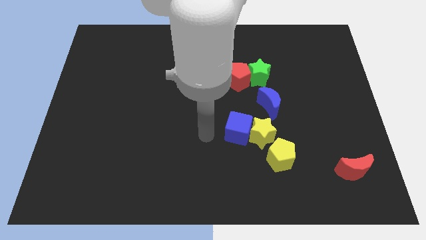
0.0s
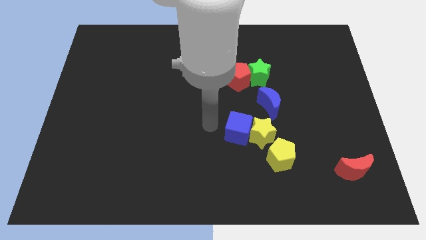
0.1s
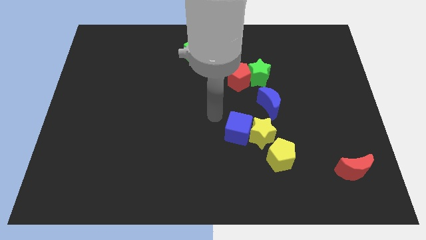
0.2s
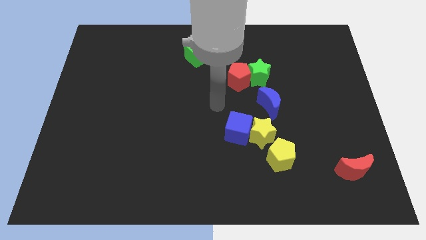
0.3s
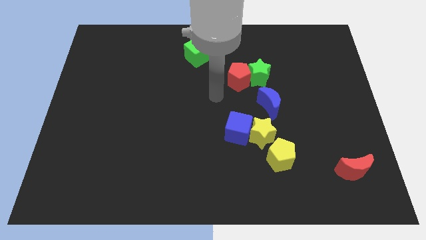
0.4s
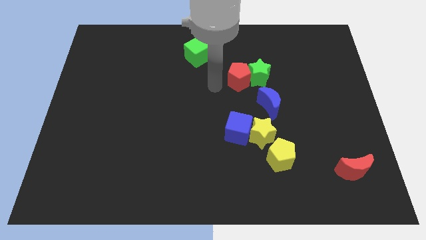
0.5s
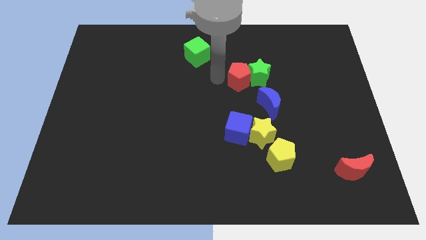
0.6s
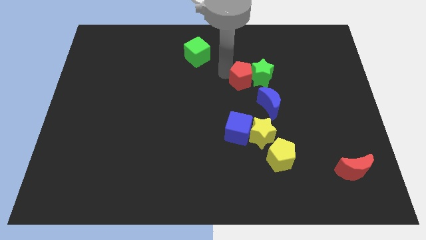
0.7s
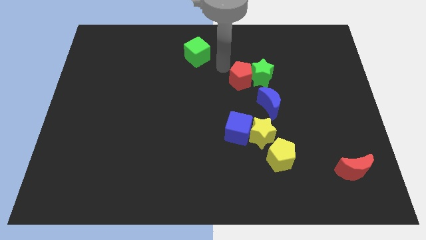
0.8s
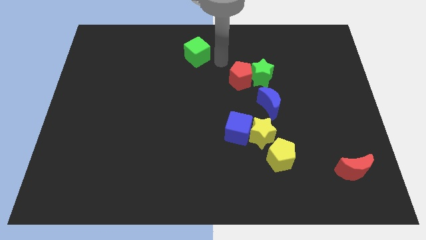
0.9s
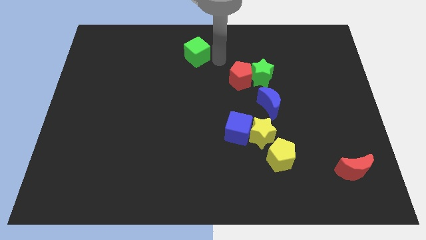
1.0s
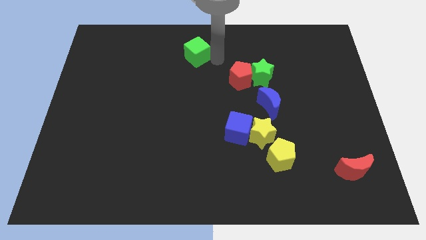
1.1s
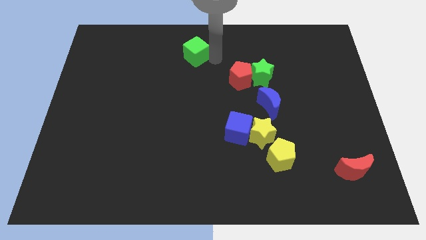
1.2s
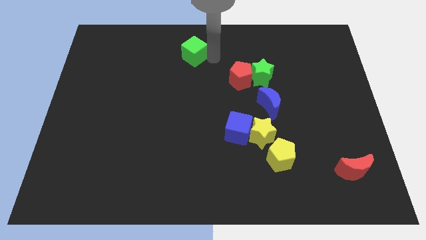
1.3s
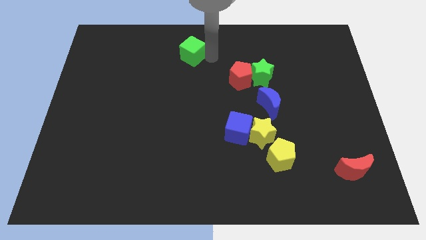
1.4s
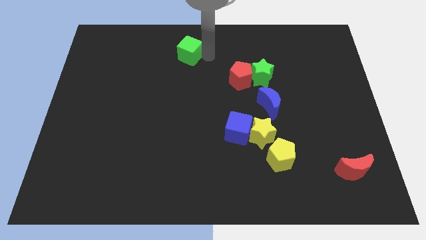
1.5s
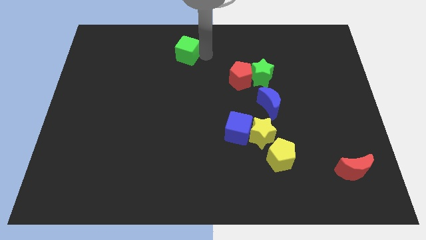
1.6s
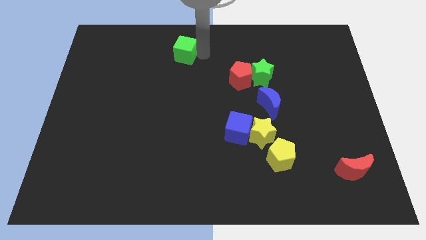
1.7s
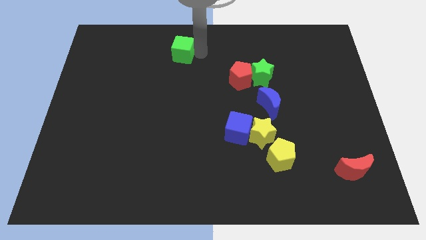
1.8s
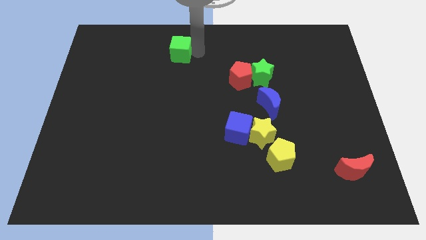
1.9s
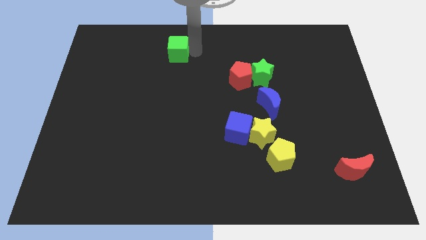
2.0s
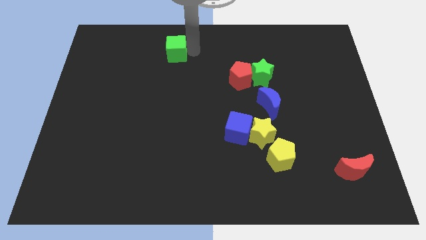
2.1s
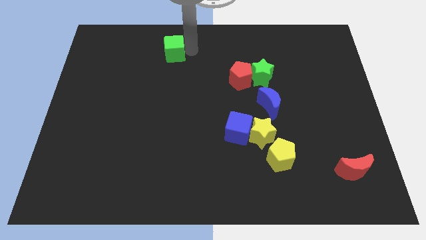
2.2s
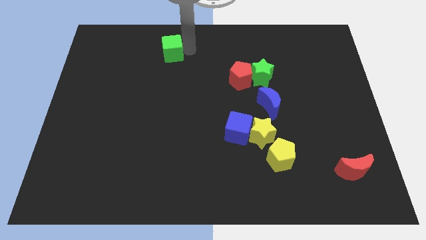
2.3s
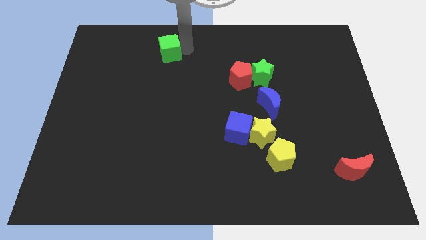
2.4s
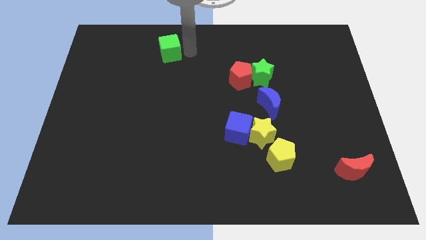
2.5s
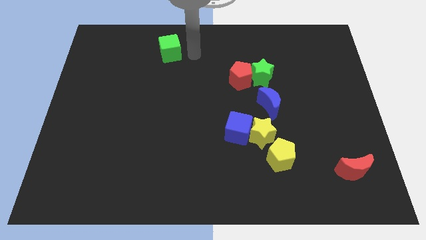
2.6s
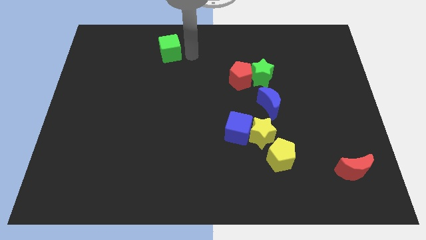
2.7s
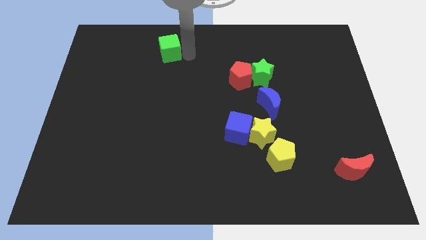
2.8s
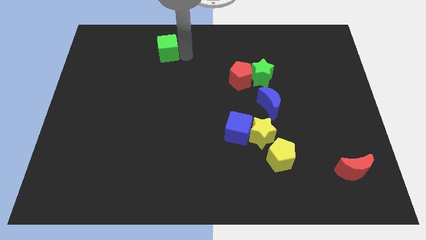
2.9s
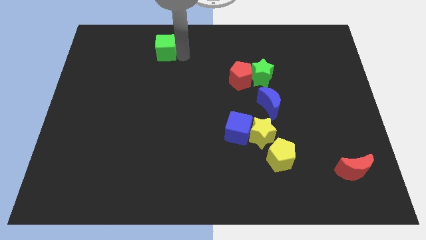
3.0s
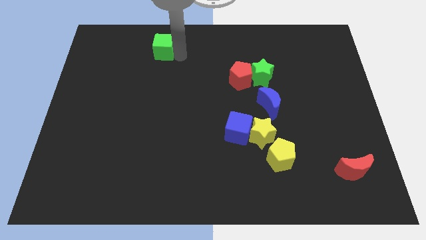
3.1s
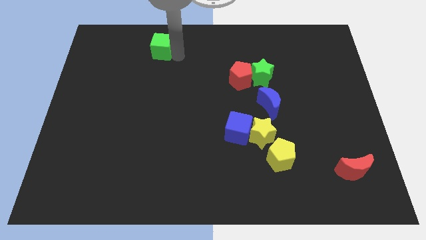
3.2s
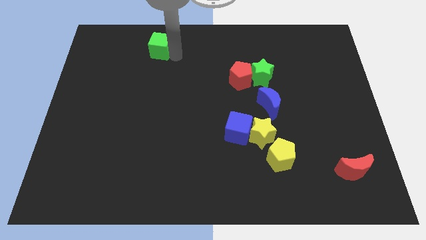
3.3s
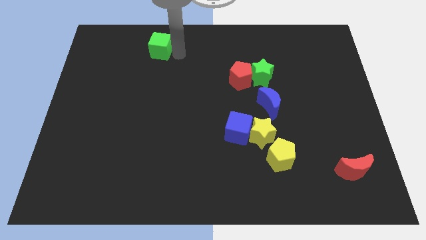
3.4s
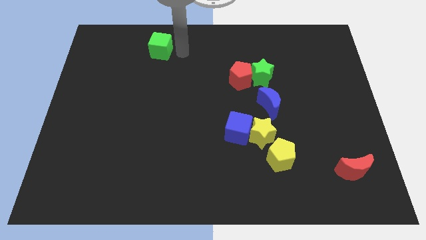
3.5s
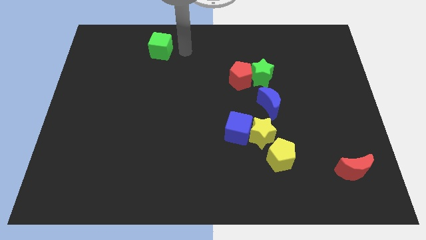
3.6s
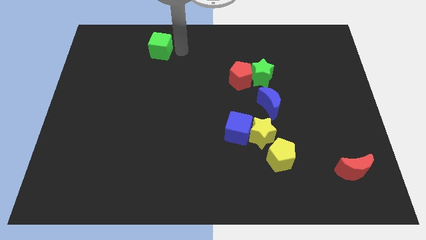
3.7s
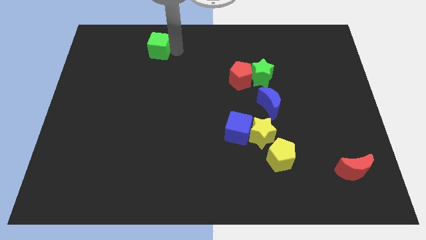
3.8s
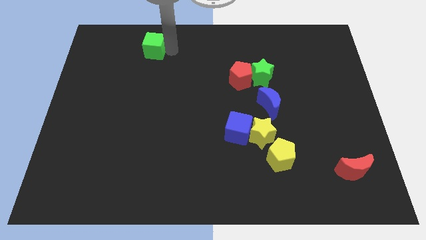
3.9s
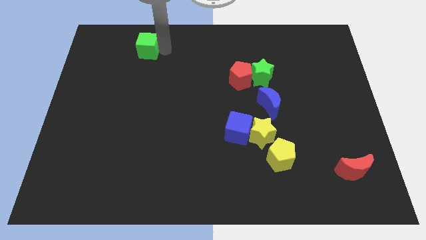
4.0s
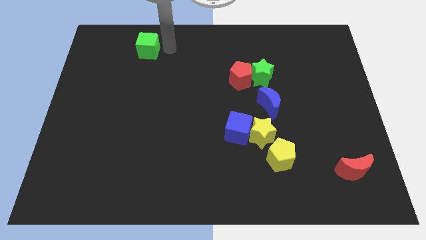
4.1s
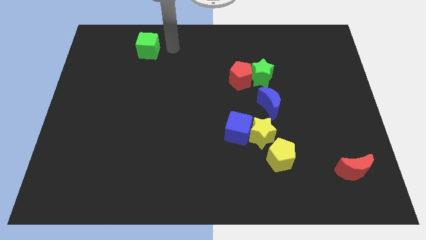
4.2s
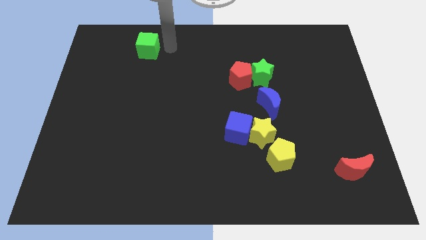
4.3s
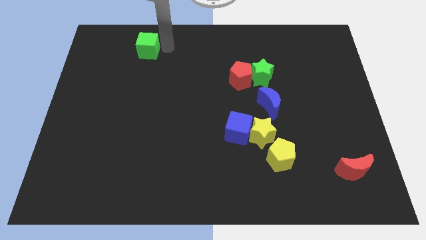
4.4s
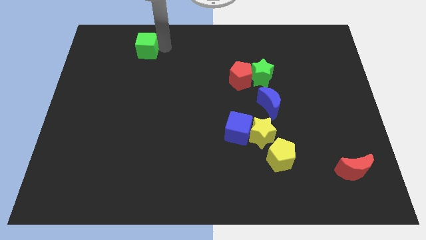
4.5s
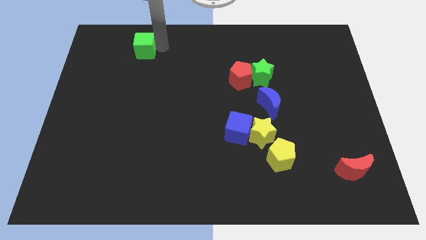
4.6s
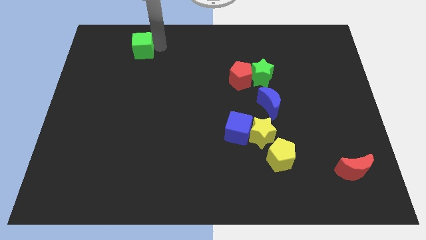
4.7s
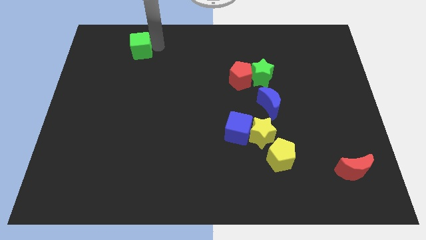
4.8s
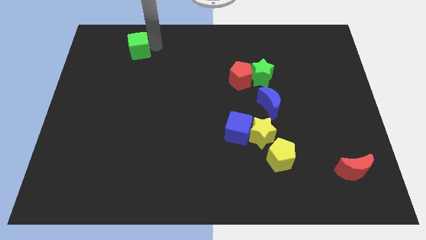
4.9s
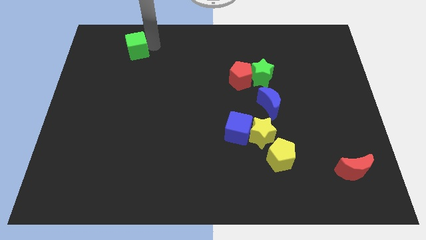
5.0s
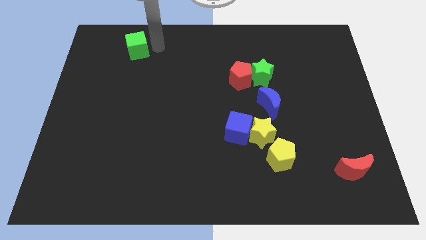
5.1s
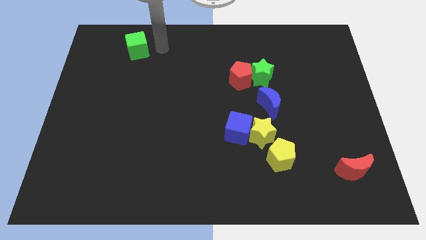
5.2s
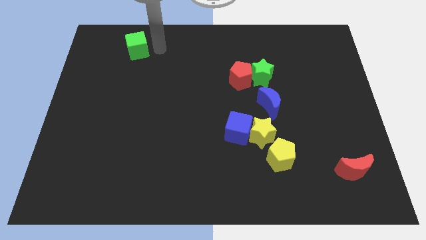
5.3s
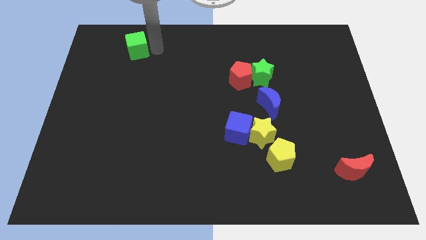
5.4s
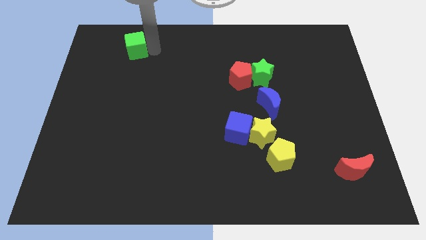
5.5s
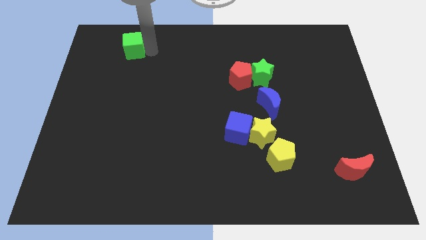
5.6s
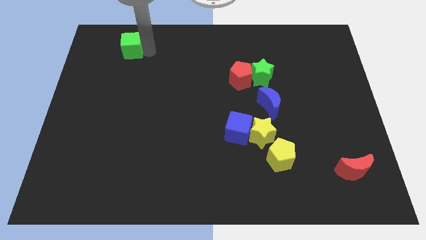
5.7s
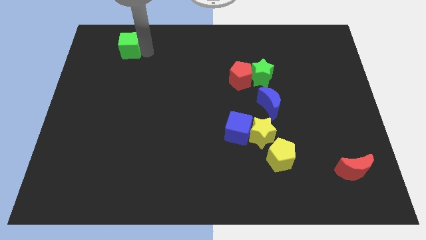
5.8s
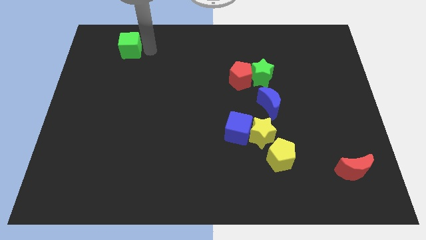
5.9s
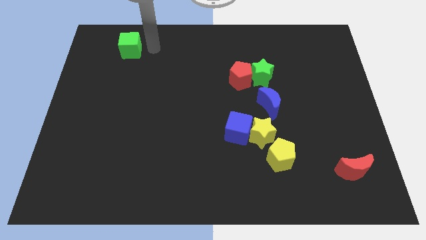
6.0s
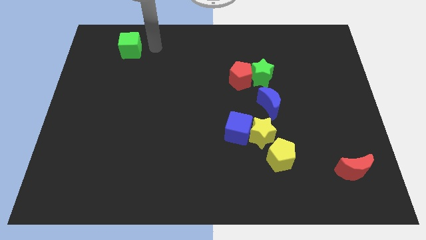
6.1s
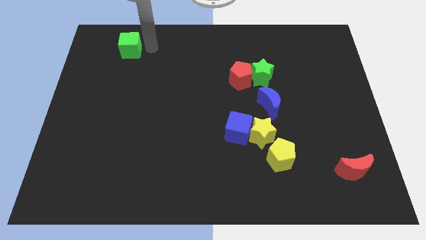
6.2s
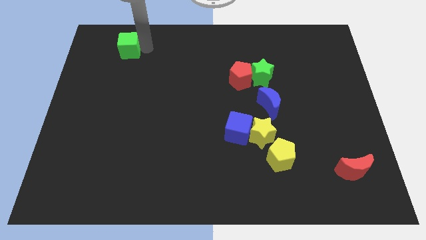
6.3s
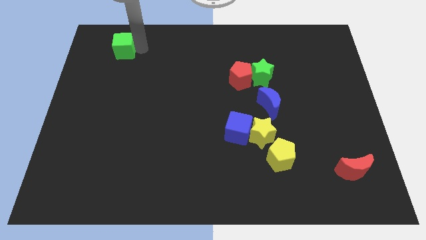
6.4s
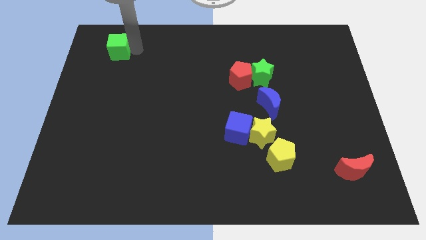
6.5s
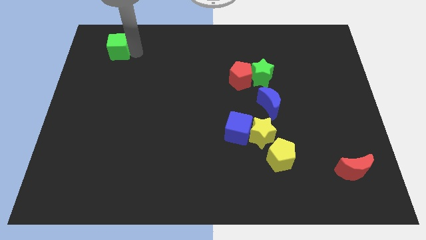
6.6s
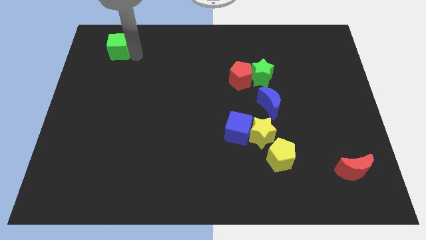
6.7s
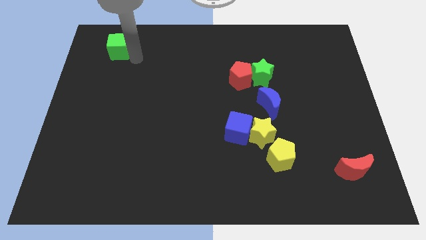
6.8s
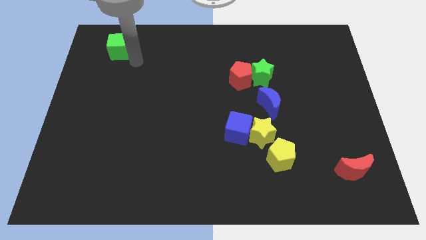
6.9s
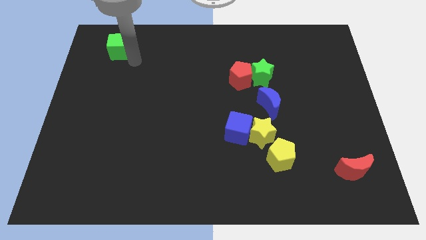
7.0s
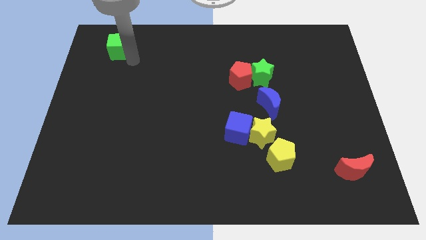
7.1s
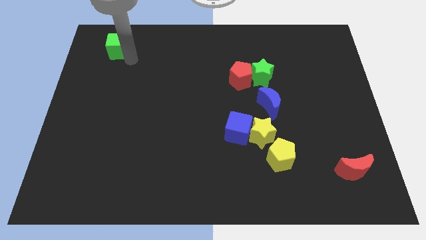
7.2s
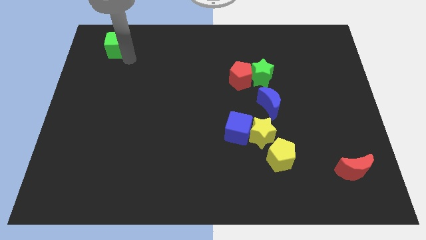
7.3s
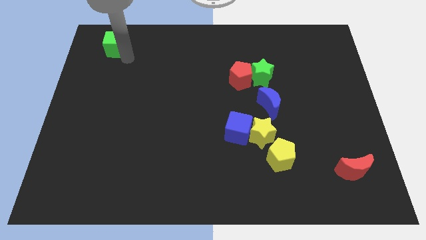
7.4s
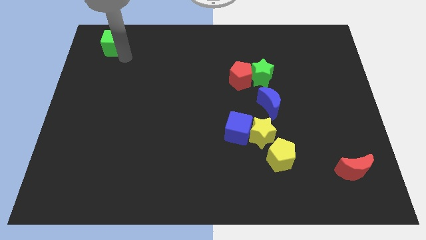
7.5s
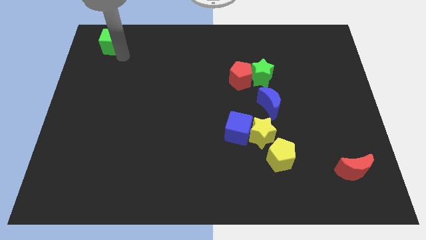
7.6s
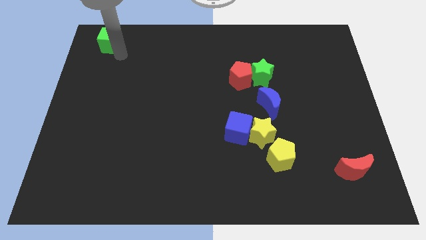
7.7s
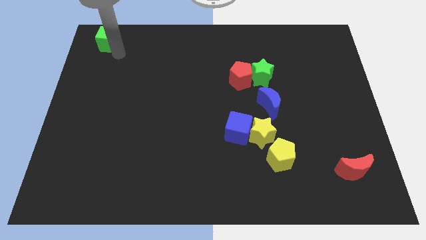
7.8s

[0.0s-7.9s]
slide the green cube to the top left
